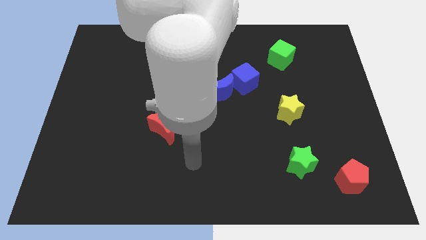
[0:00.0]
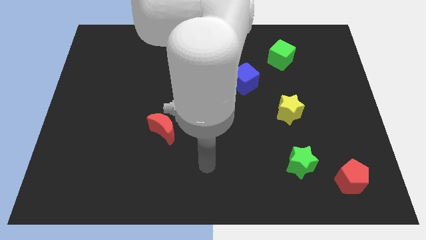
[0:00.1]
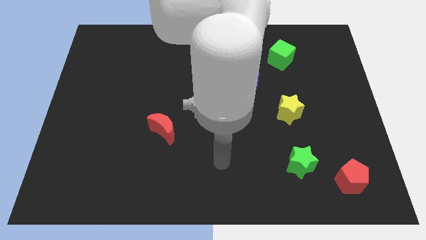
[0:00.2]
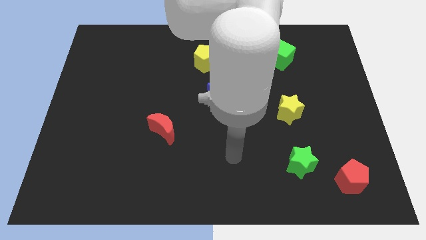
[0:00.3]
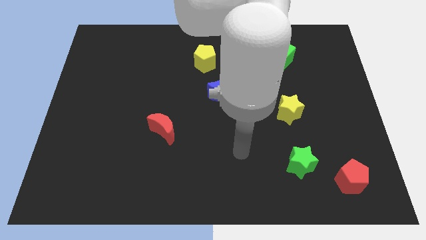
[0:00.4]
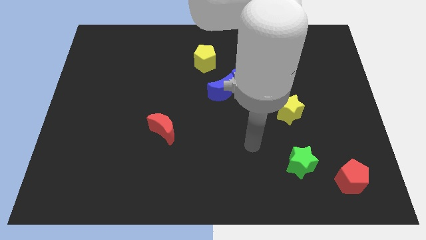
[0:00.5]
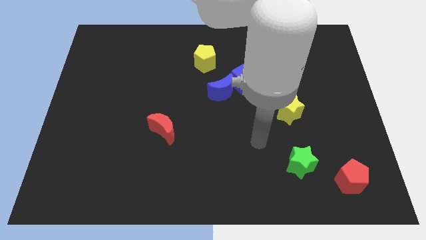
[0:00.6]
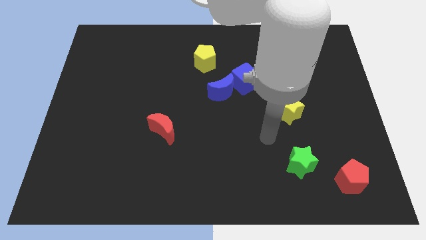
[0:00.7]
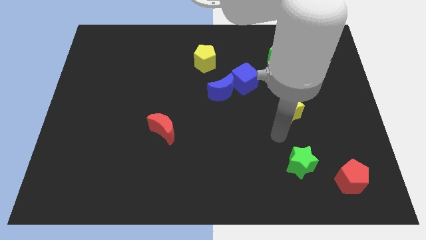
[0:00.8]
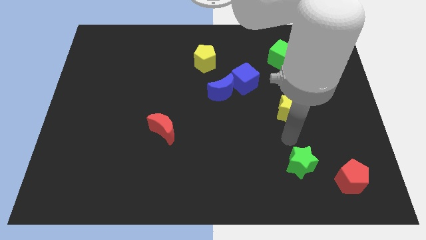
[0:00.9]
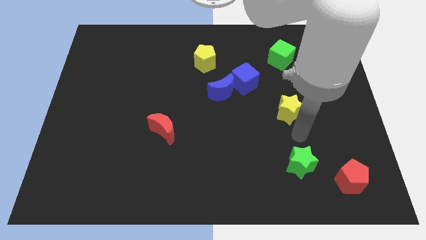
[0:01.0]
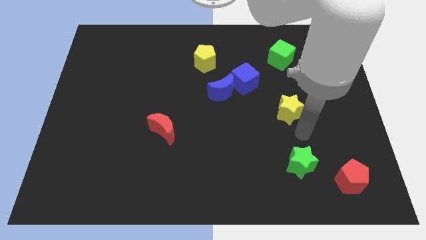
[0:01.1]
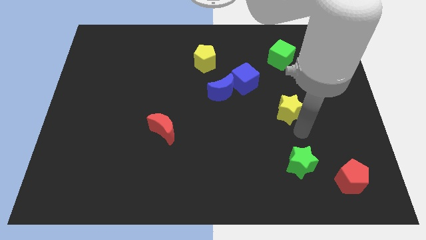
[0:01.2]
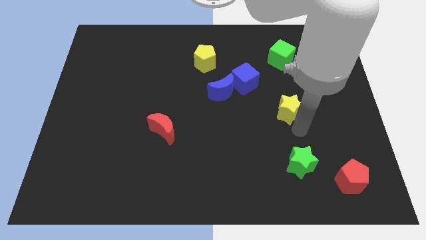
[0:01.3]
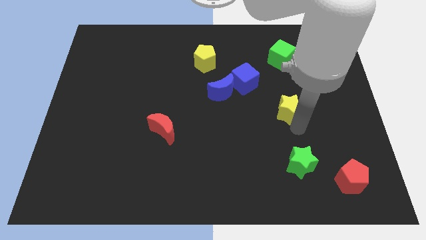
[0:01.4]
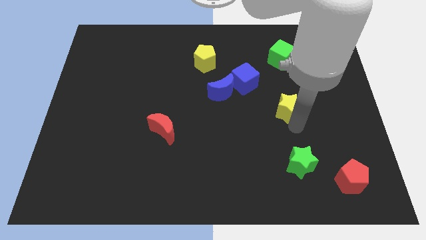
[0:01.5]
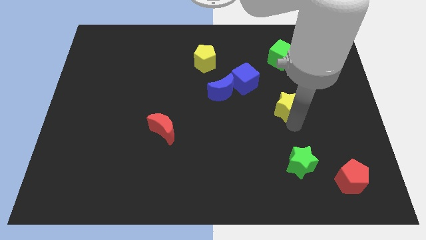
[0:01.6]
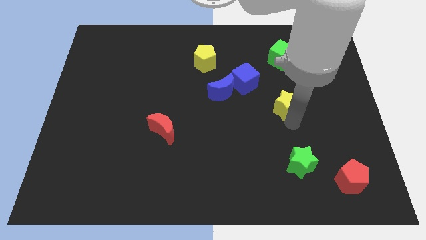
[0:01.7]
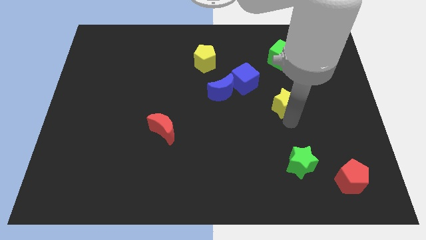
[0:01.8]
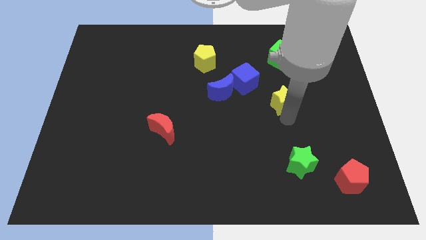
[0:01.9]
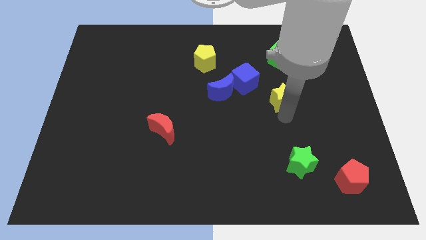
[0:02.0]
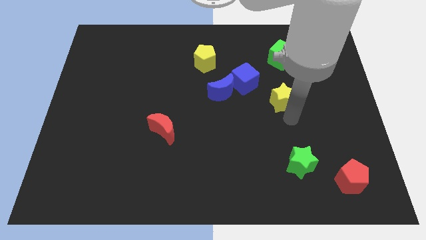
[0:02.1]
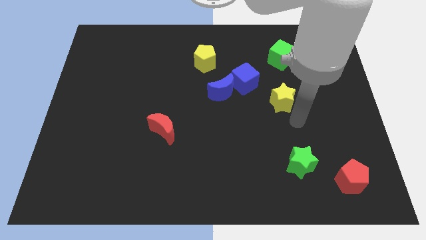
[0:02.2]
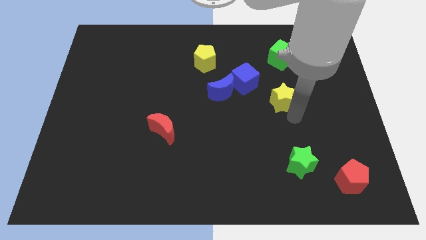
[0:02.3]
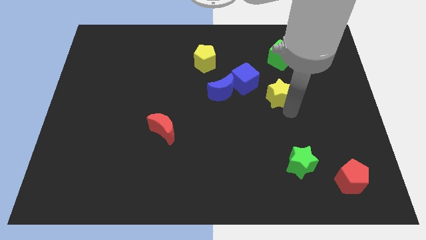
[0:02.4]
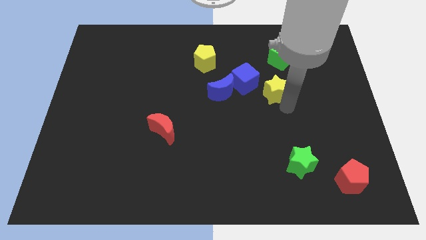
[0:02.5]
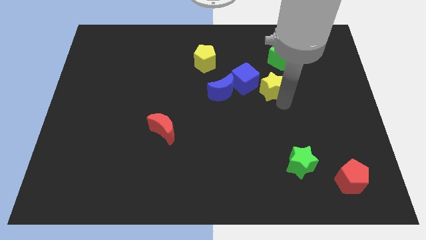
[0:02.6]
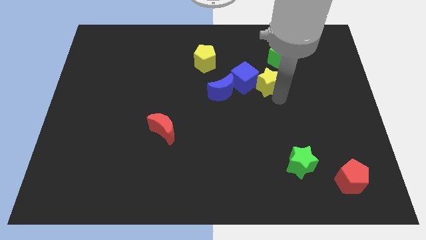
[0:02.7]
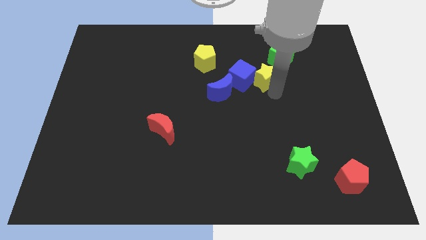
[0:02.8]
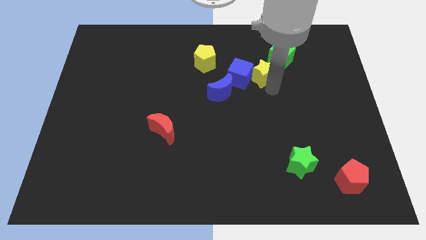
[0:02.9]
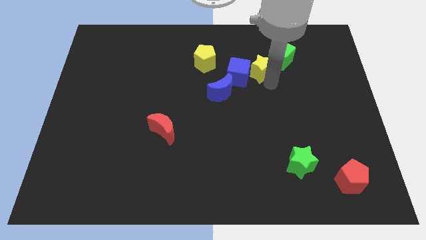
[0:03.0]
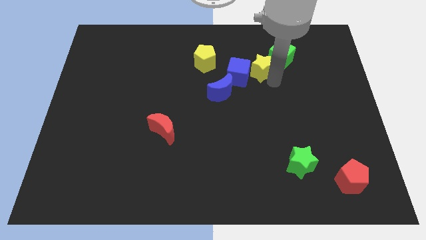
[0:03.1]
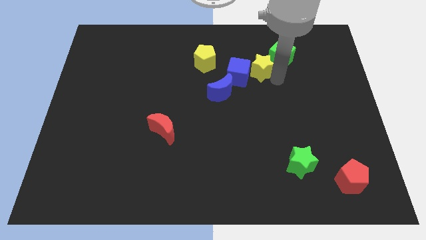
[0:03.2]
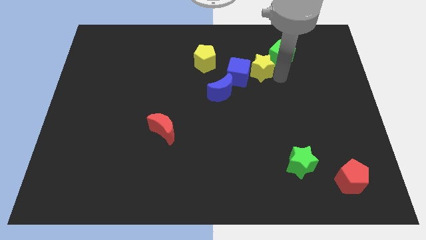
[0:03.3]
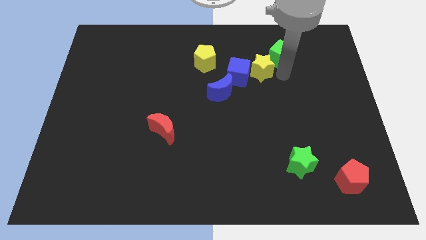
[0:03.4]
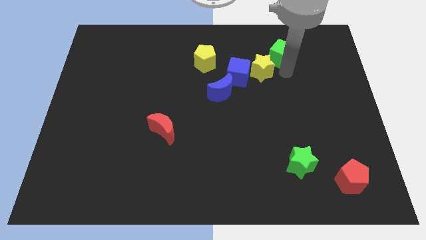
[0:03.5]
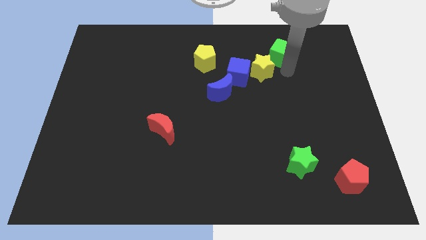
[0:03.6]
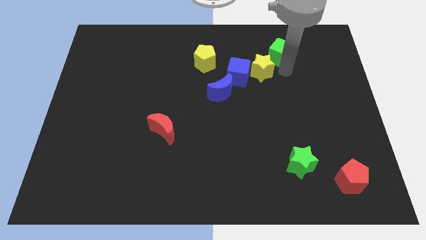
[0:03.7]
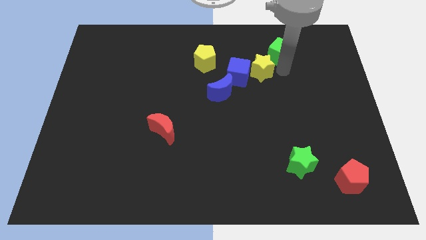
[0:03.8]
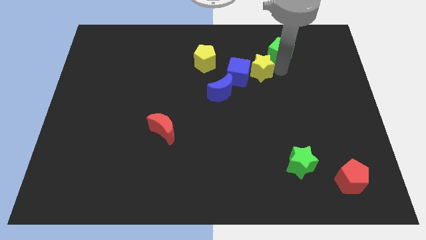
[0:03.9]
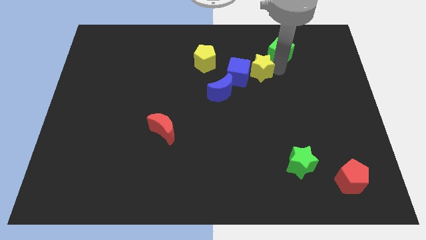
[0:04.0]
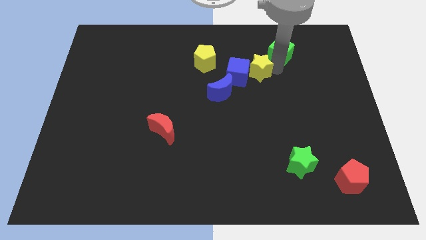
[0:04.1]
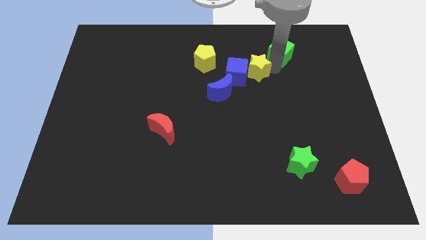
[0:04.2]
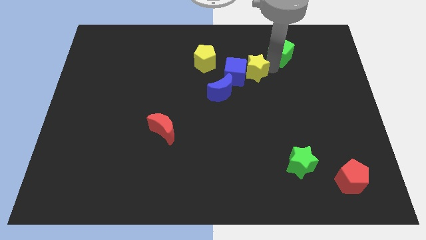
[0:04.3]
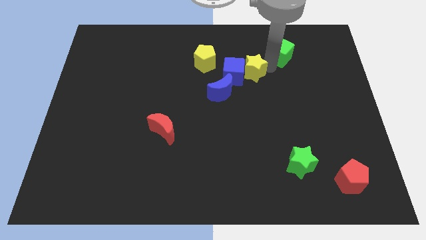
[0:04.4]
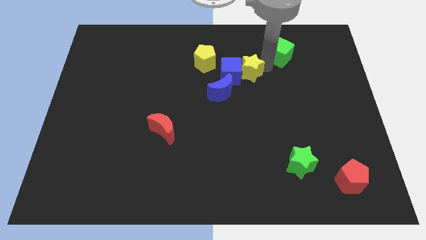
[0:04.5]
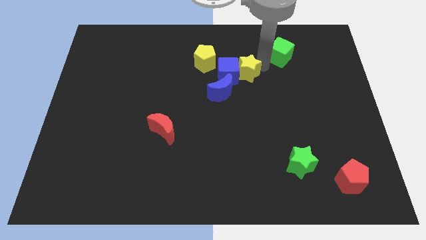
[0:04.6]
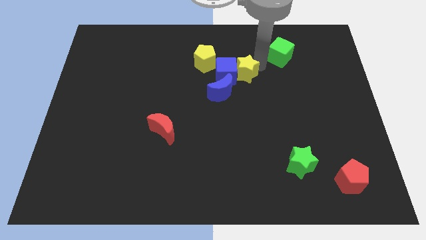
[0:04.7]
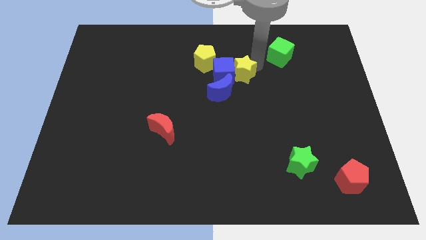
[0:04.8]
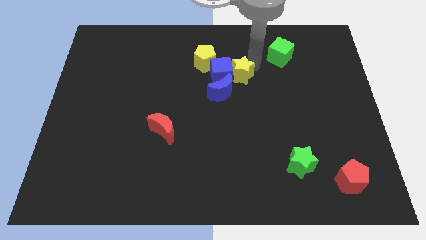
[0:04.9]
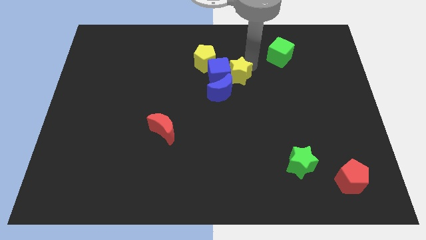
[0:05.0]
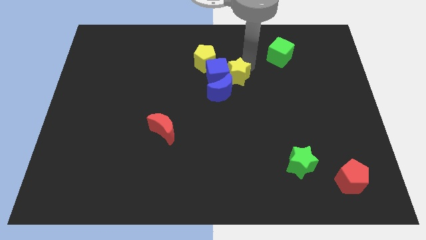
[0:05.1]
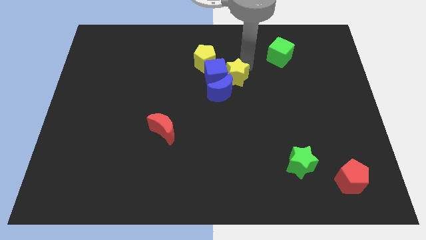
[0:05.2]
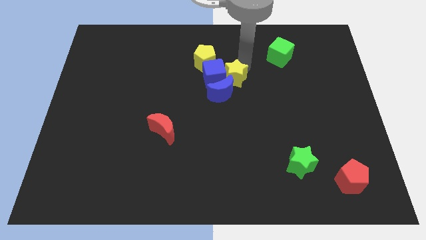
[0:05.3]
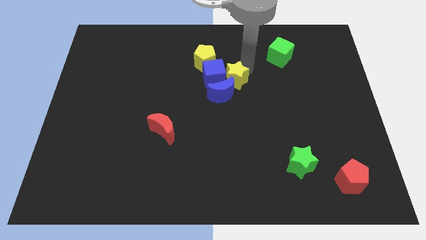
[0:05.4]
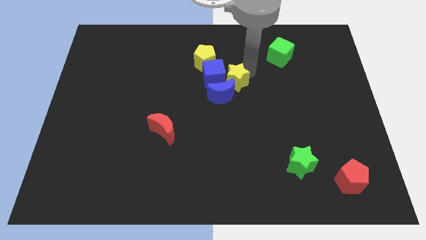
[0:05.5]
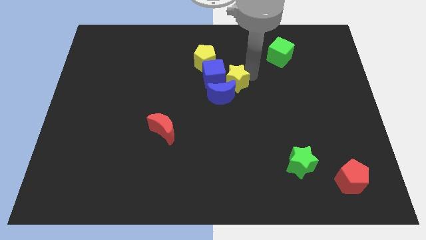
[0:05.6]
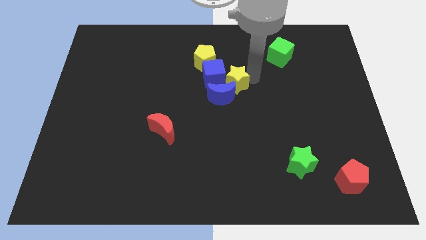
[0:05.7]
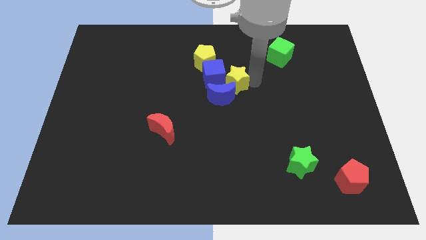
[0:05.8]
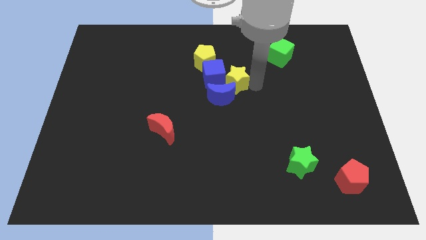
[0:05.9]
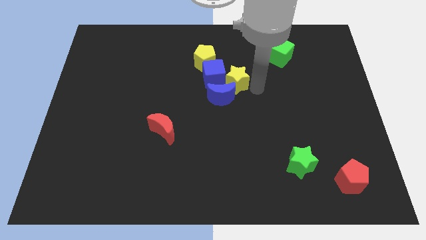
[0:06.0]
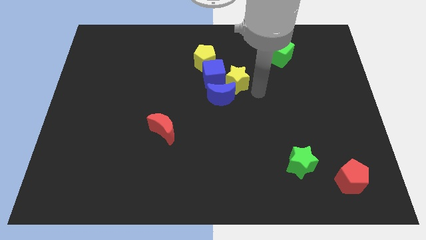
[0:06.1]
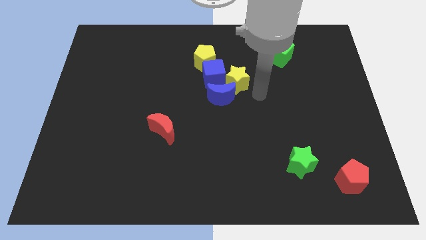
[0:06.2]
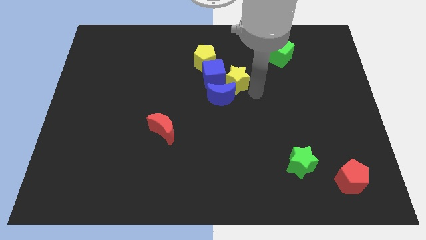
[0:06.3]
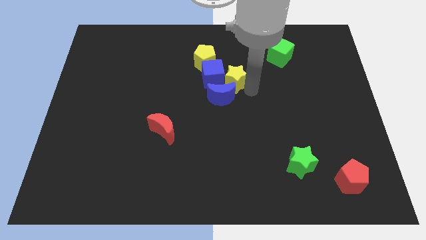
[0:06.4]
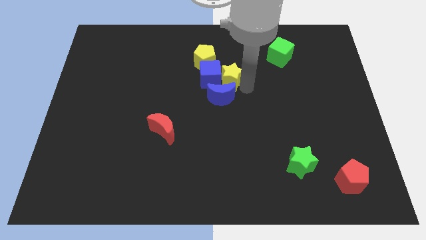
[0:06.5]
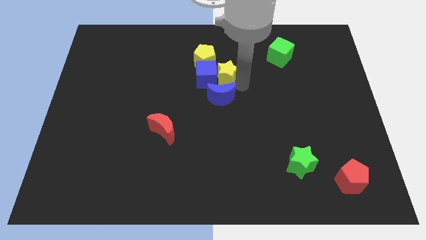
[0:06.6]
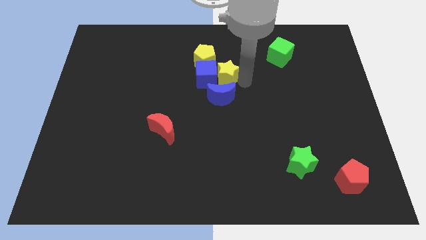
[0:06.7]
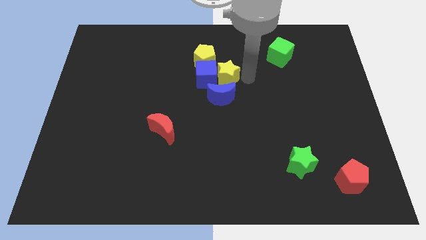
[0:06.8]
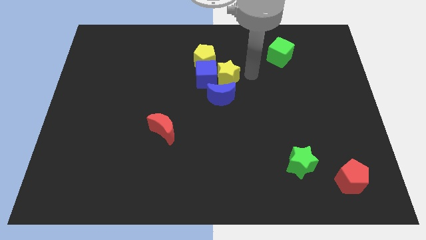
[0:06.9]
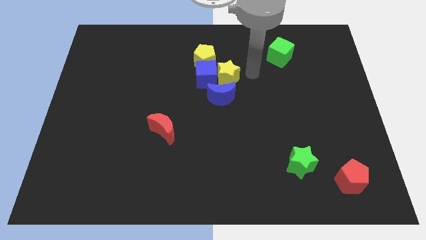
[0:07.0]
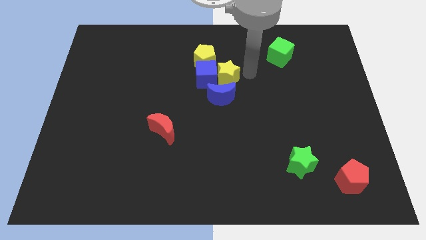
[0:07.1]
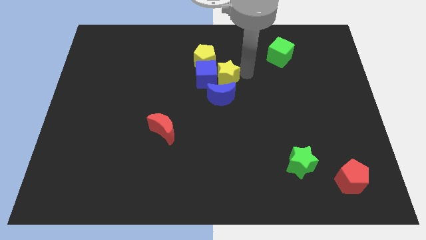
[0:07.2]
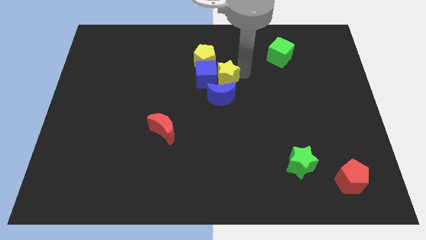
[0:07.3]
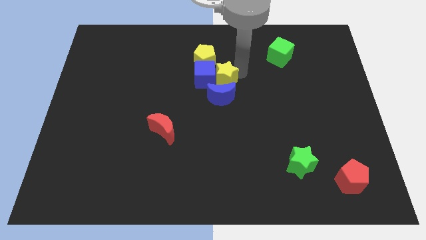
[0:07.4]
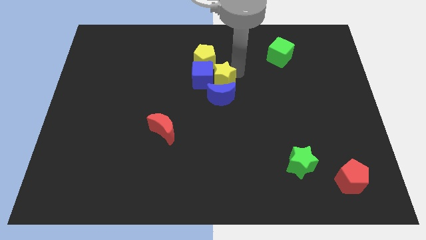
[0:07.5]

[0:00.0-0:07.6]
slide the yellow star to the top left of the blue moon
